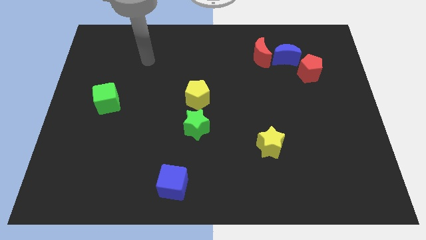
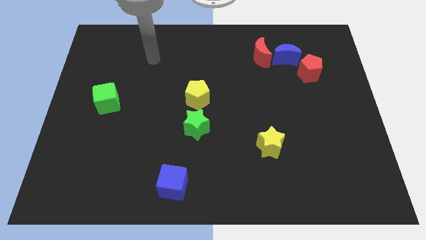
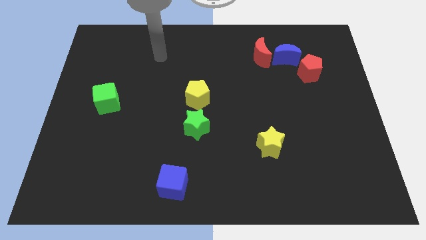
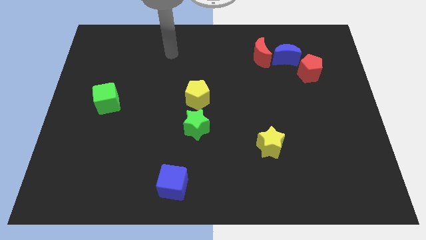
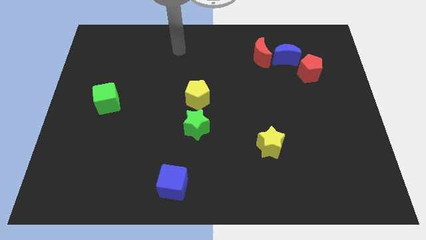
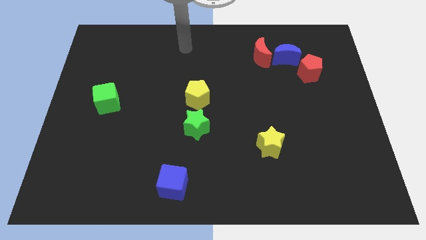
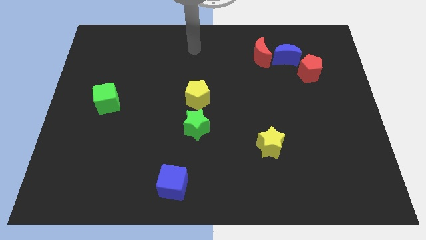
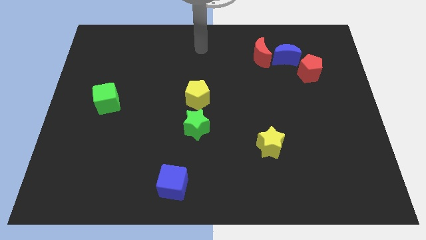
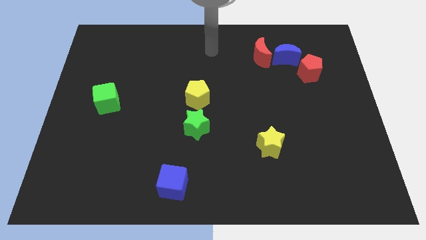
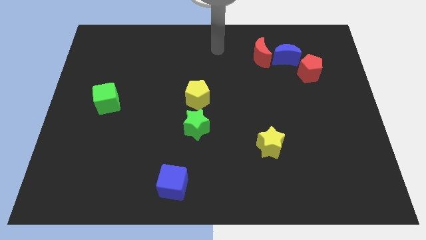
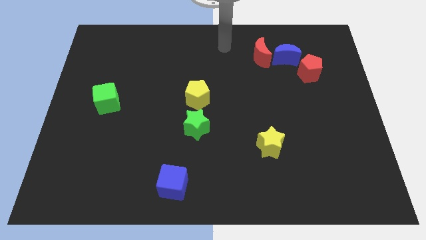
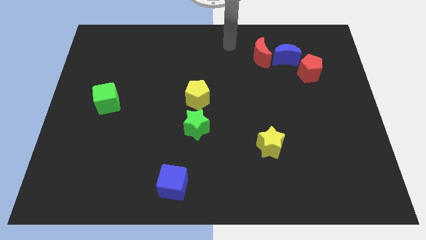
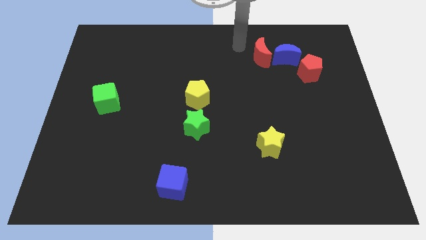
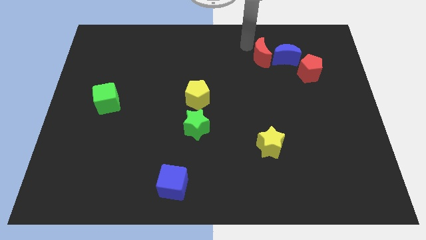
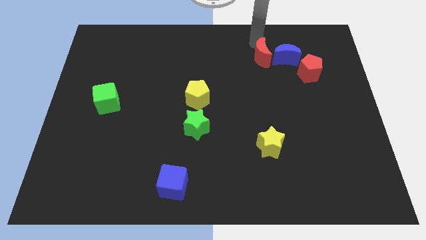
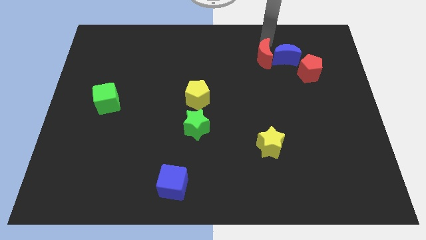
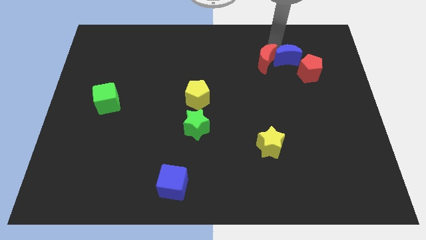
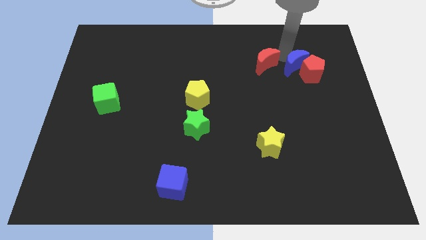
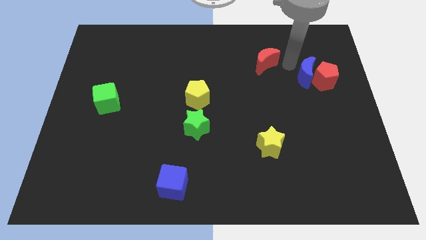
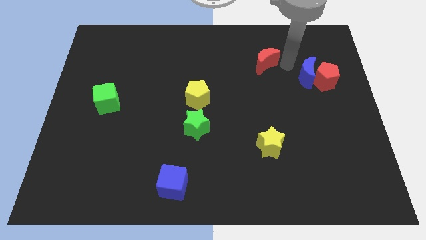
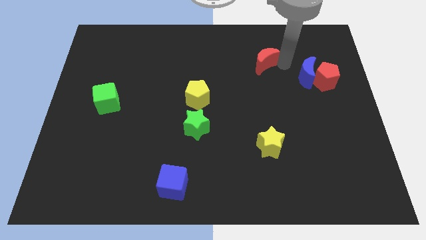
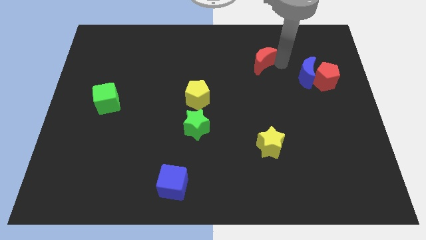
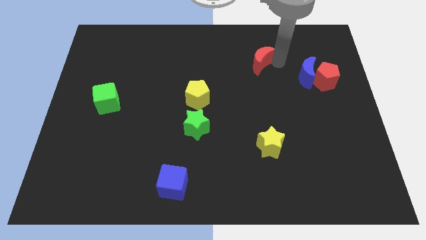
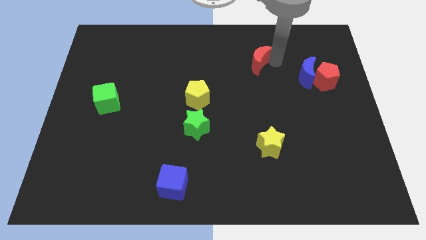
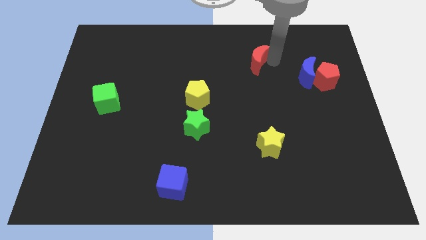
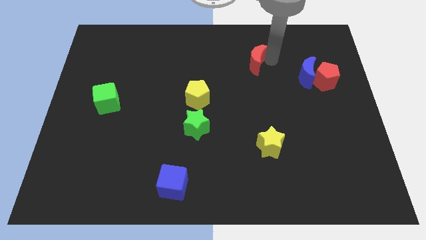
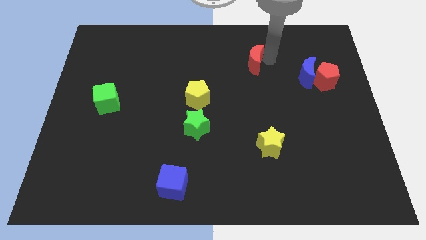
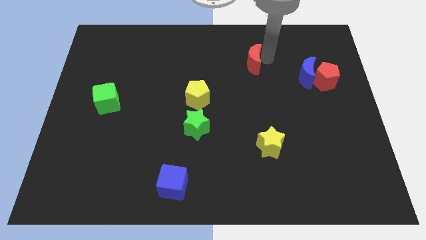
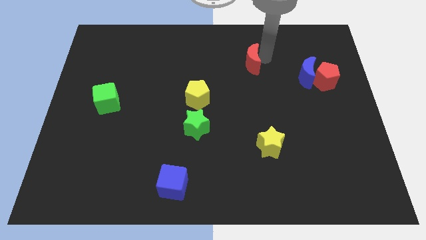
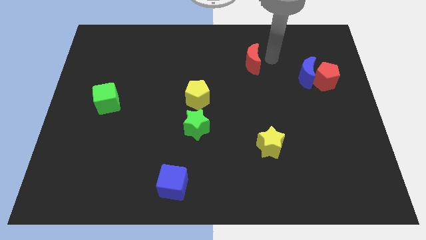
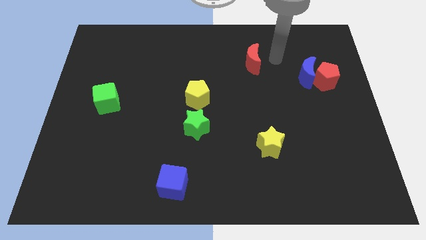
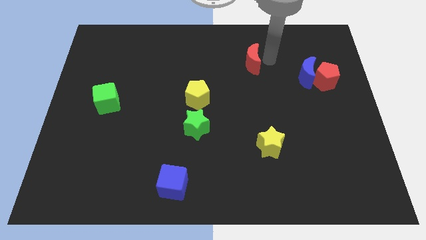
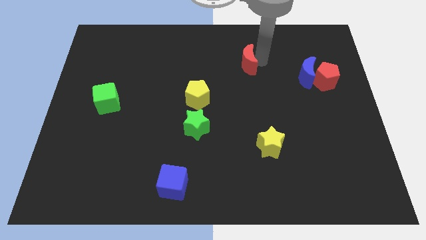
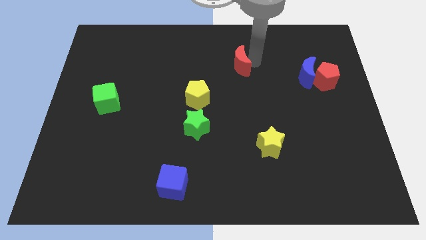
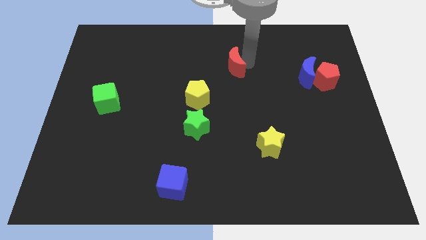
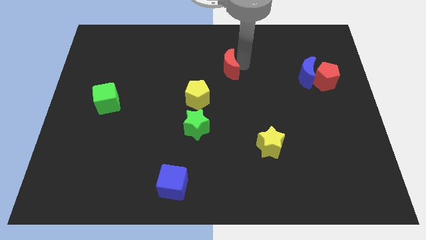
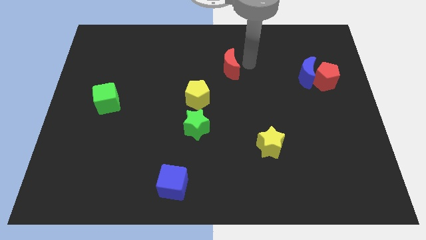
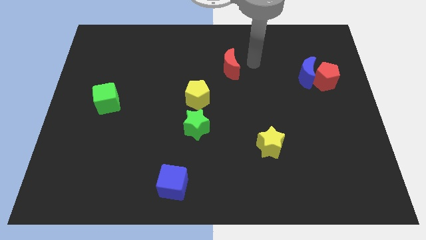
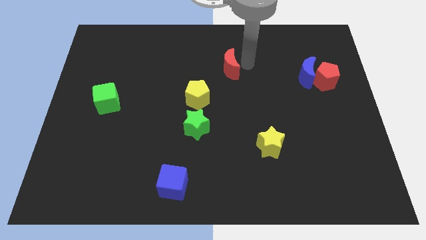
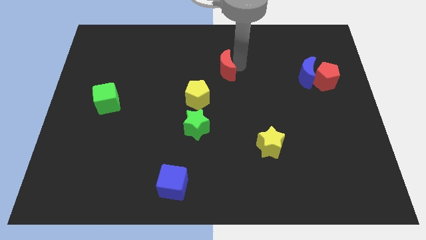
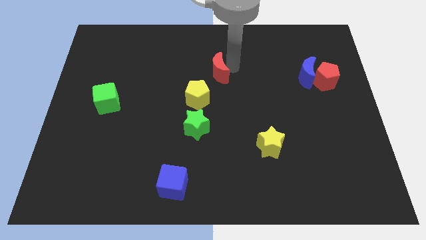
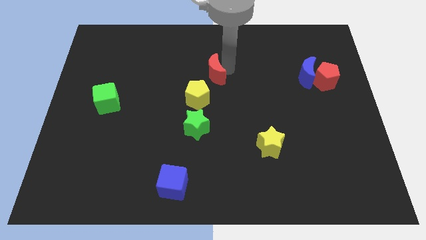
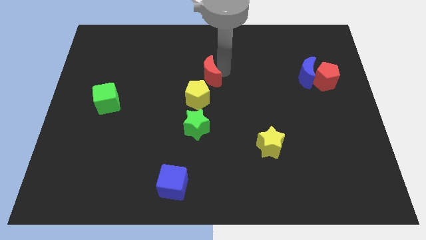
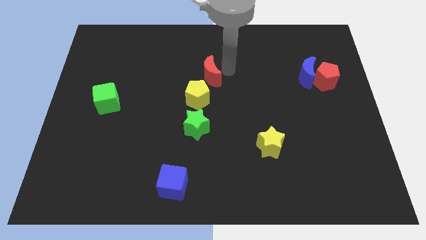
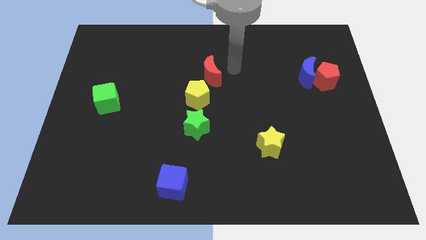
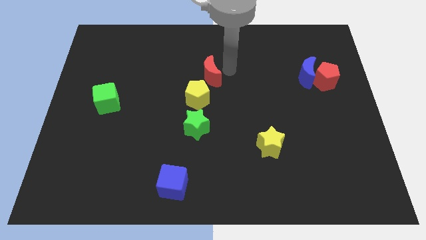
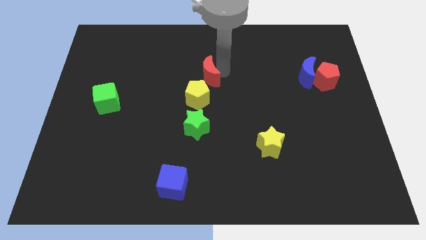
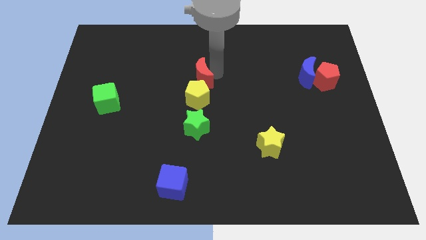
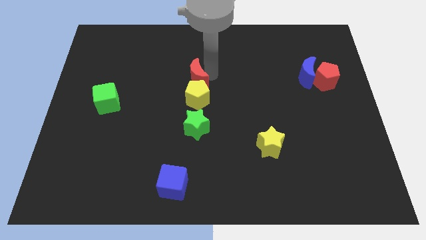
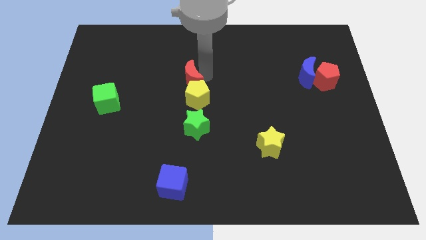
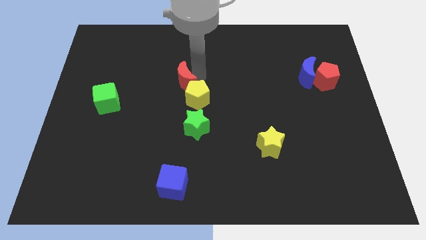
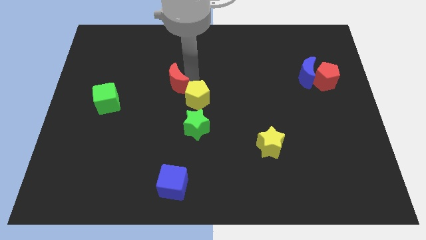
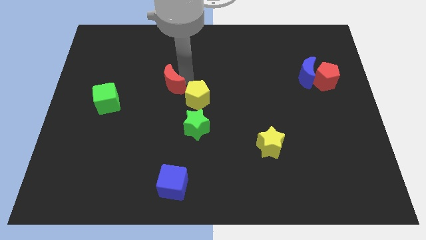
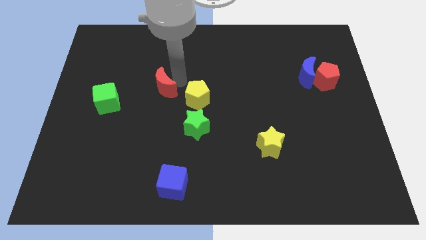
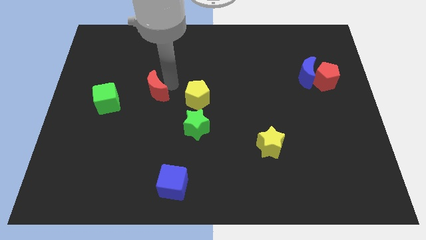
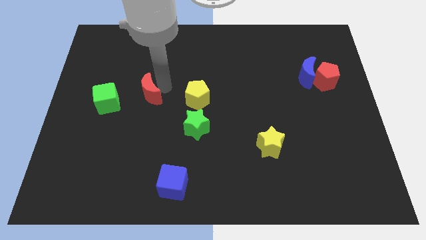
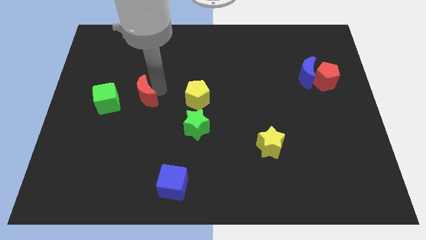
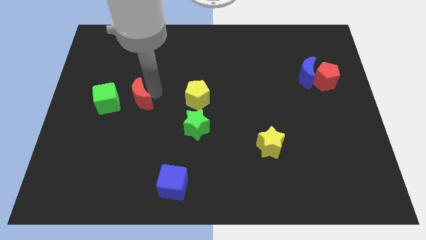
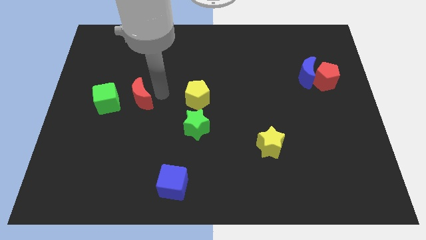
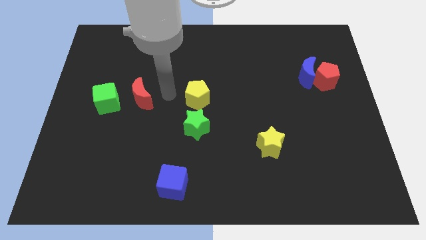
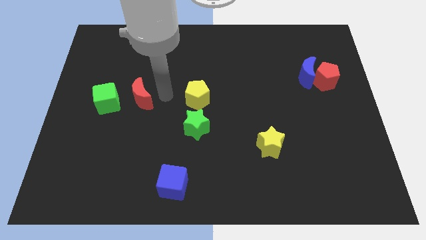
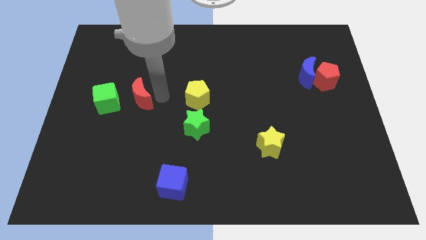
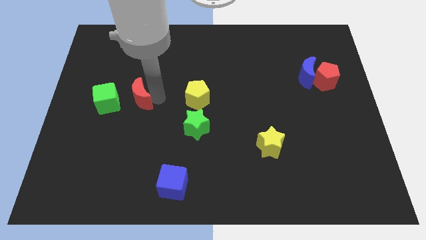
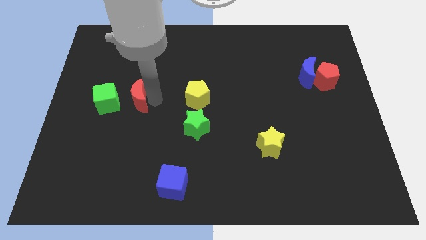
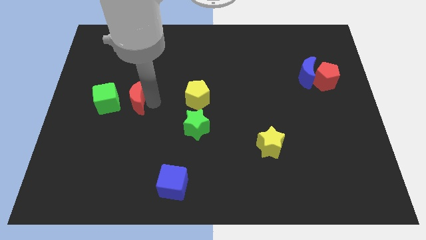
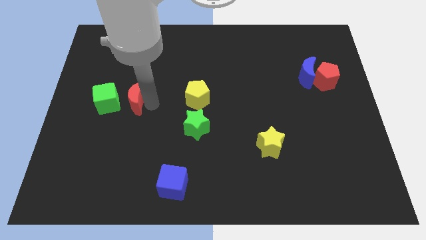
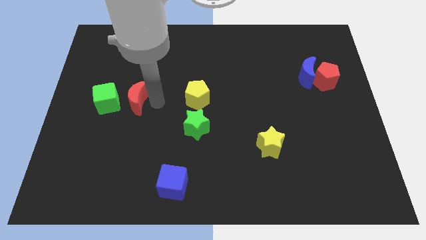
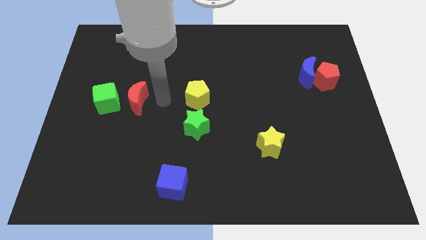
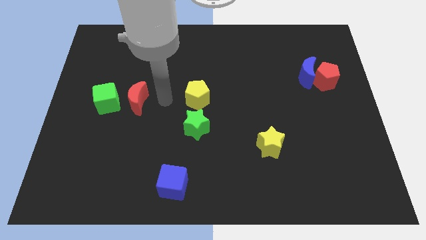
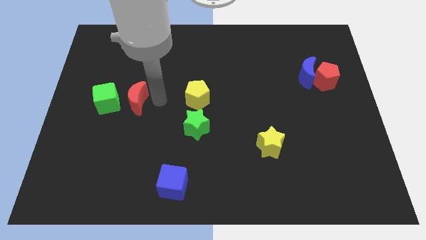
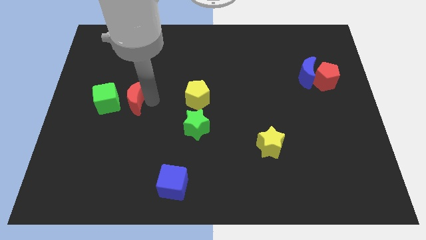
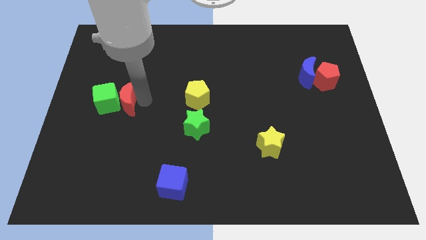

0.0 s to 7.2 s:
push the red moon to the green cube

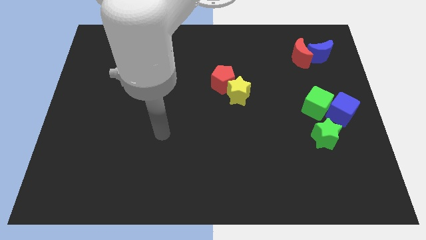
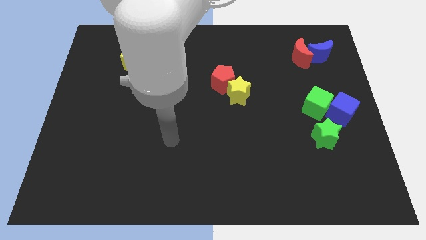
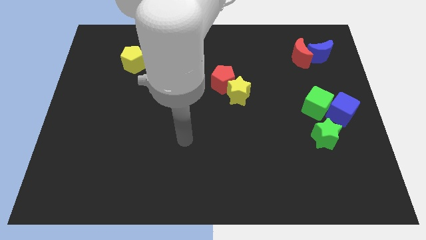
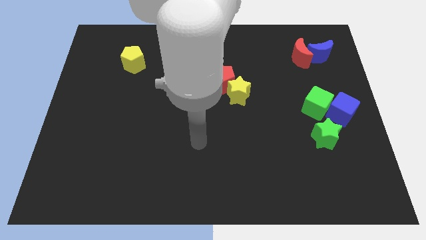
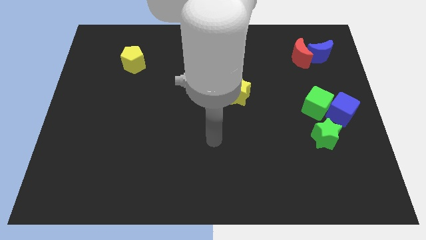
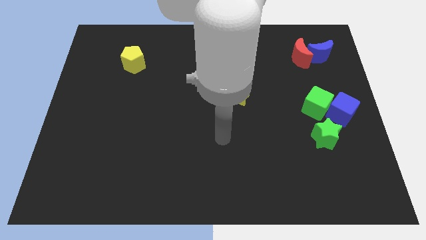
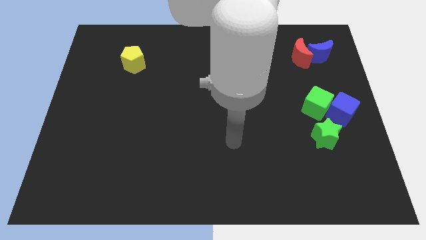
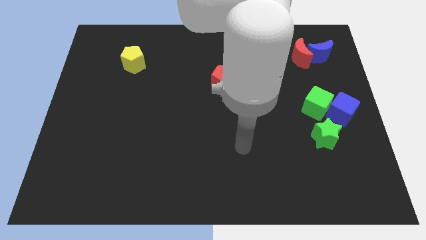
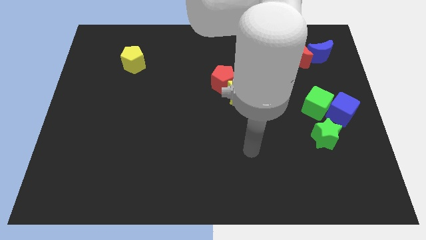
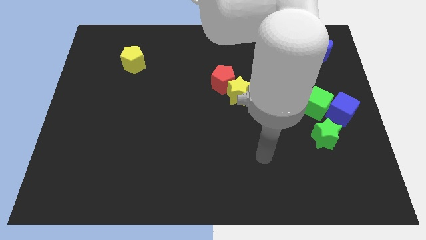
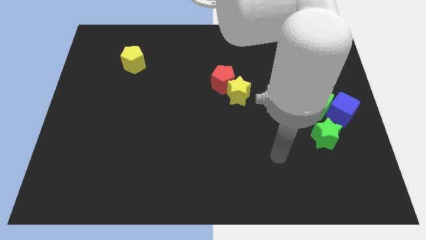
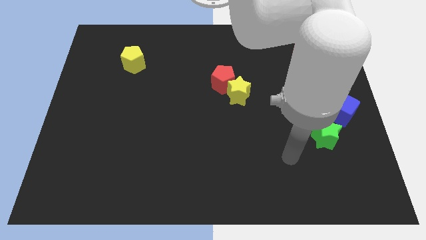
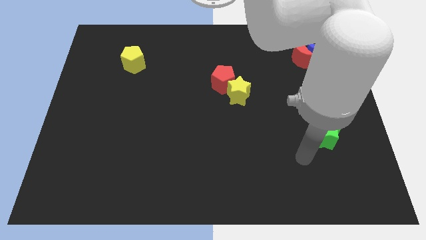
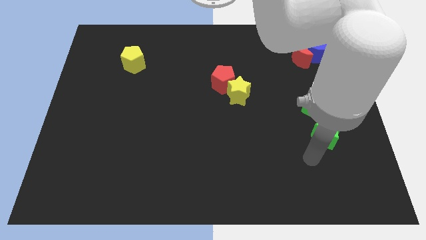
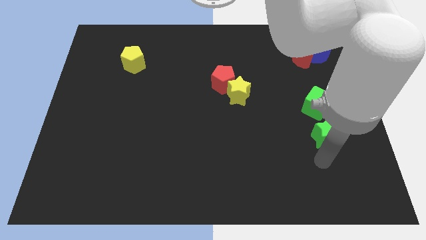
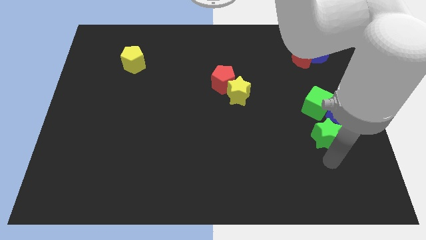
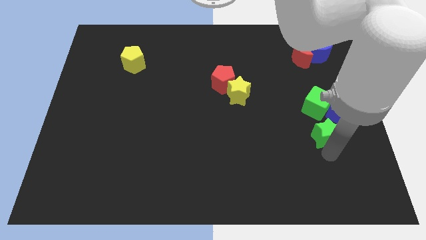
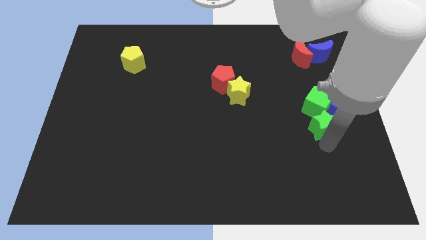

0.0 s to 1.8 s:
move the green star towards the green cube
